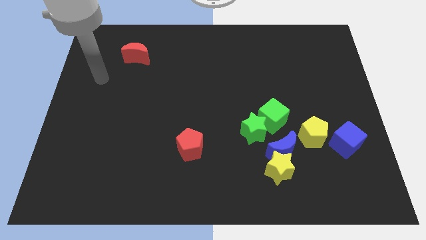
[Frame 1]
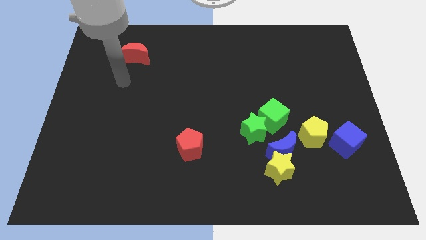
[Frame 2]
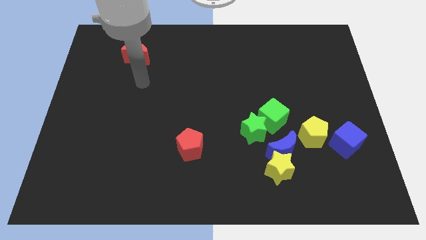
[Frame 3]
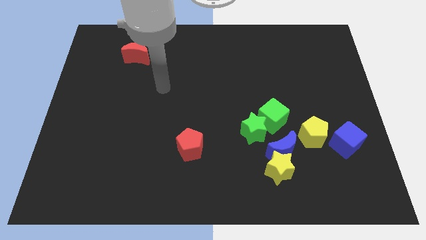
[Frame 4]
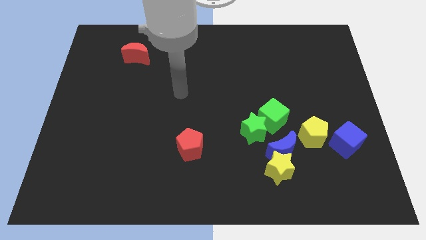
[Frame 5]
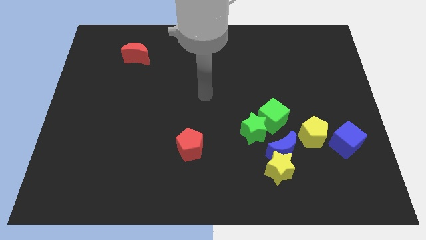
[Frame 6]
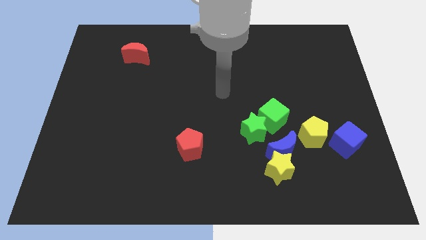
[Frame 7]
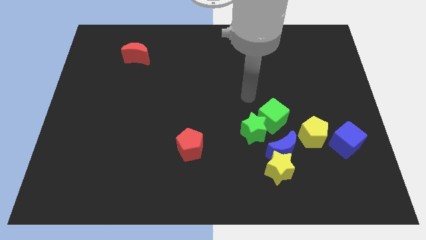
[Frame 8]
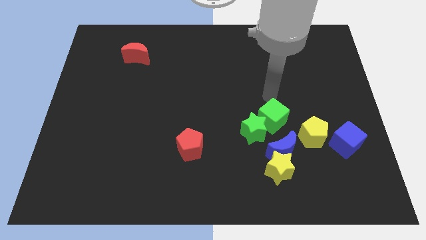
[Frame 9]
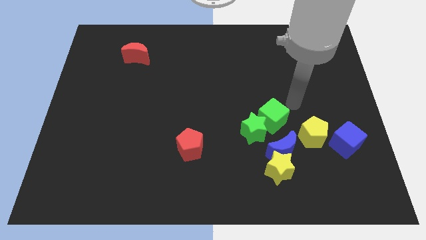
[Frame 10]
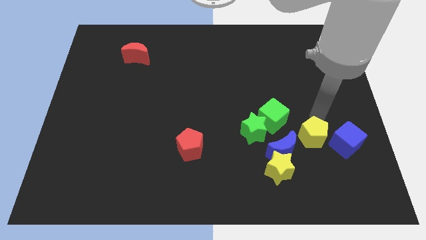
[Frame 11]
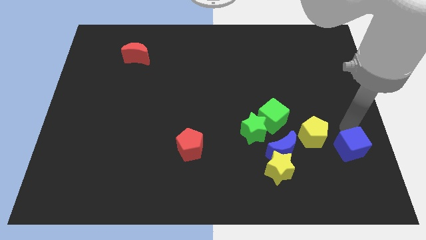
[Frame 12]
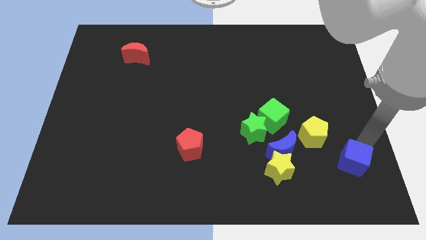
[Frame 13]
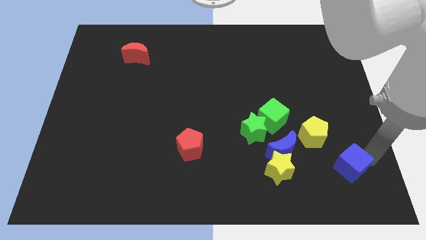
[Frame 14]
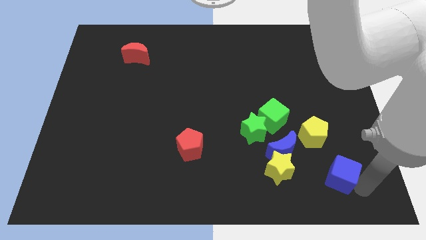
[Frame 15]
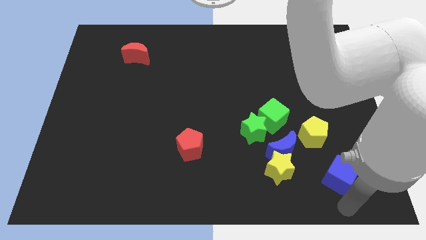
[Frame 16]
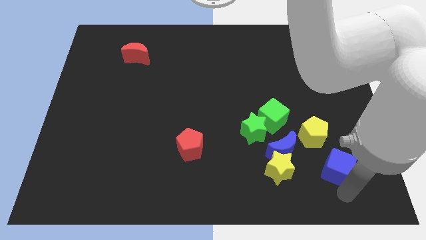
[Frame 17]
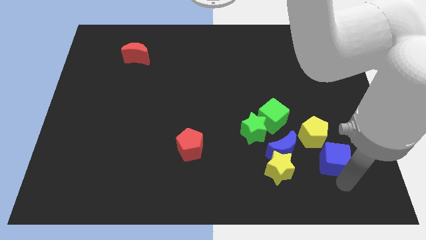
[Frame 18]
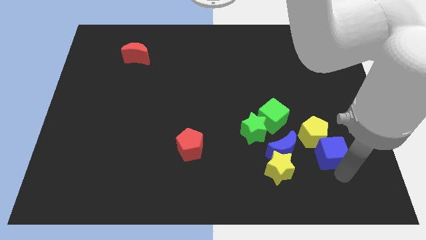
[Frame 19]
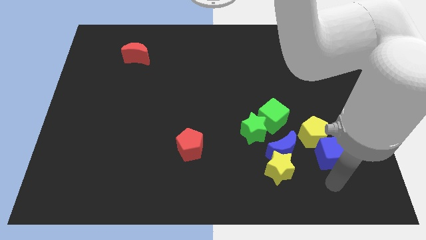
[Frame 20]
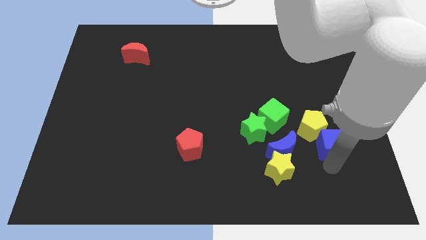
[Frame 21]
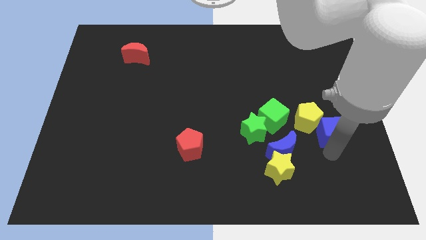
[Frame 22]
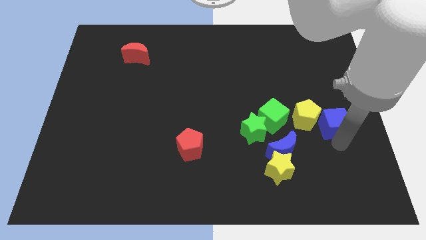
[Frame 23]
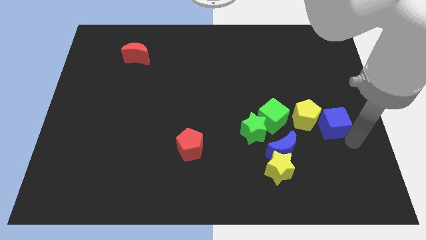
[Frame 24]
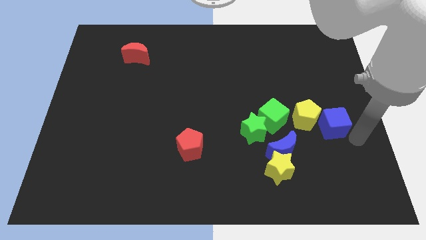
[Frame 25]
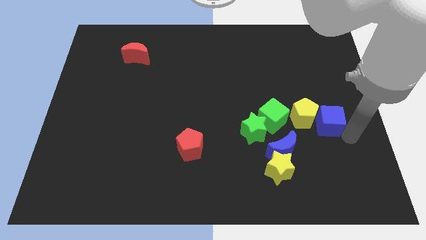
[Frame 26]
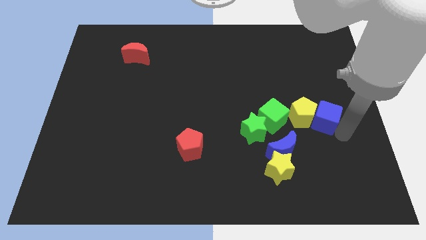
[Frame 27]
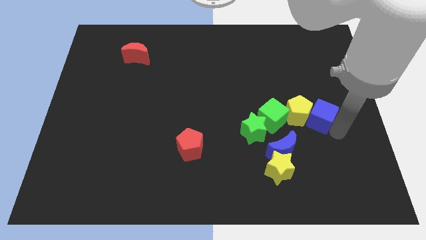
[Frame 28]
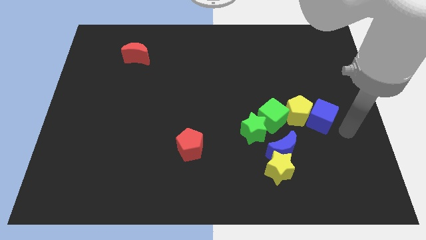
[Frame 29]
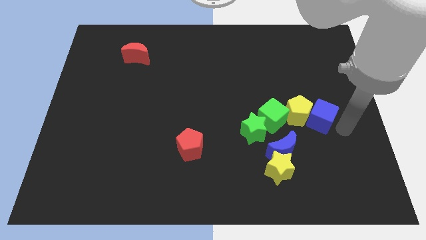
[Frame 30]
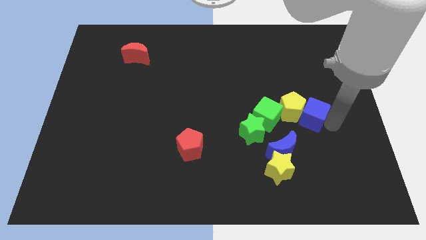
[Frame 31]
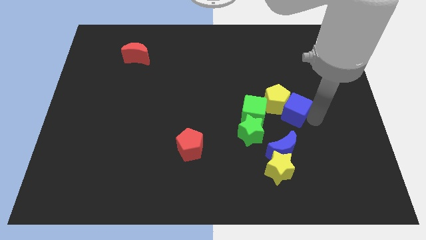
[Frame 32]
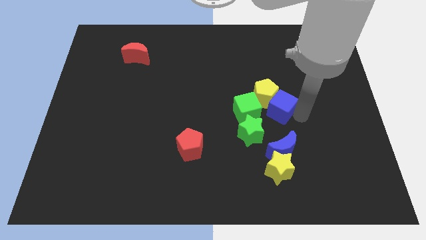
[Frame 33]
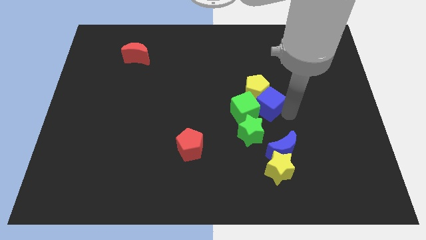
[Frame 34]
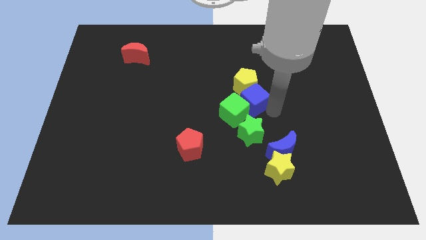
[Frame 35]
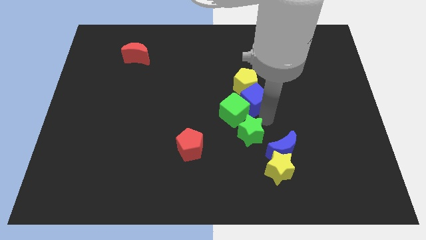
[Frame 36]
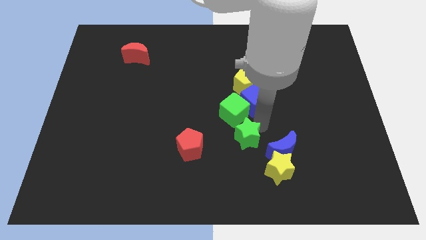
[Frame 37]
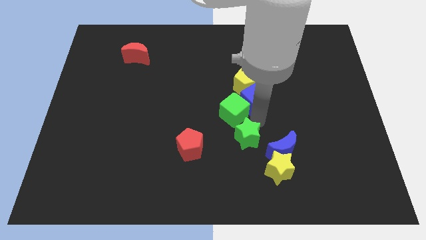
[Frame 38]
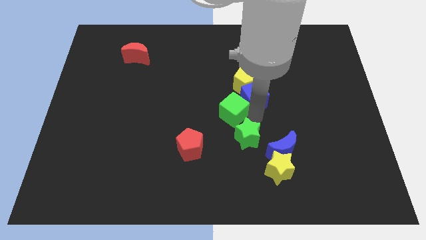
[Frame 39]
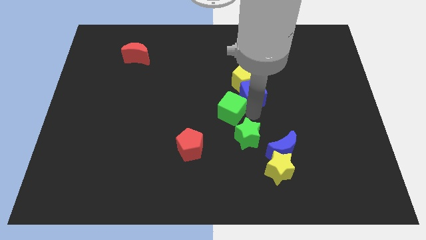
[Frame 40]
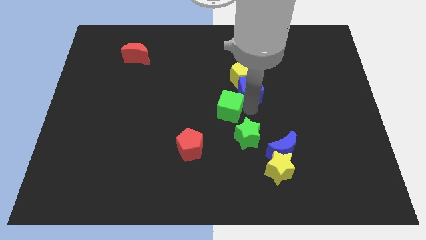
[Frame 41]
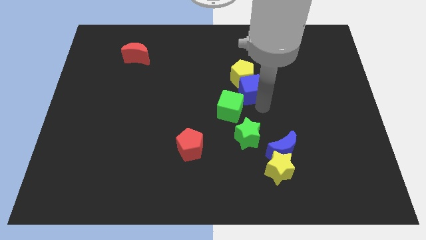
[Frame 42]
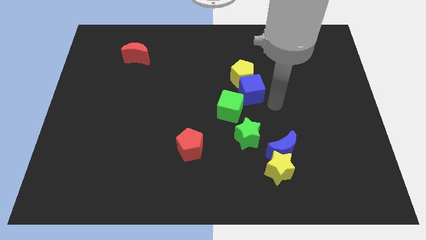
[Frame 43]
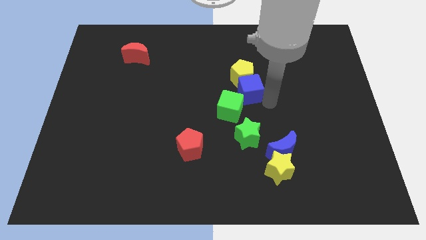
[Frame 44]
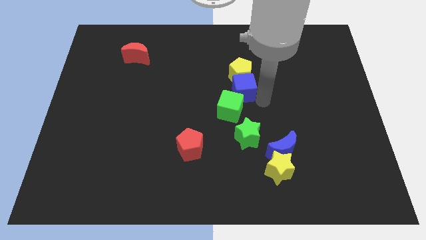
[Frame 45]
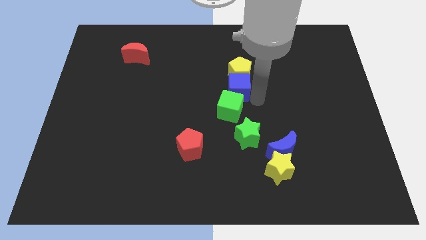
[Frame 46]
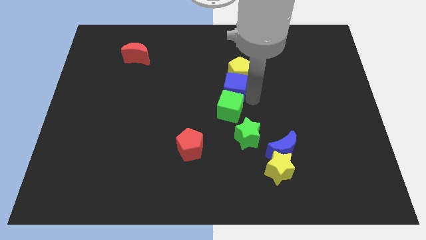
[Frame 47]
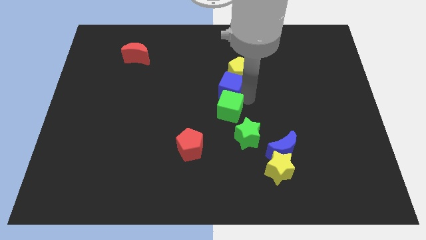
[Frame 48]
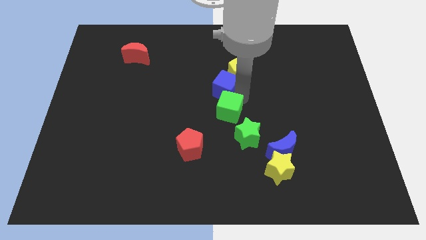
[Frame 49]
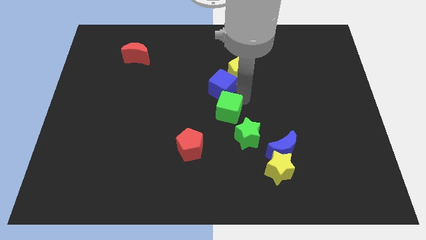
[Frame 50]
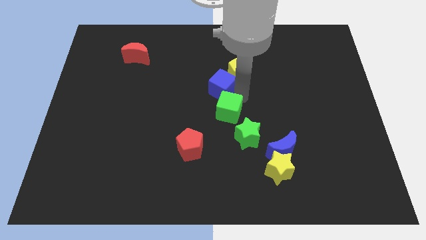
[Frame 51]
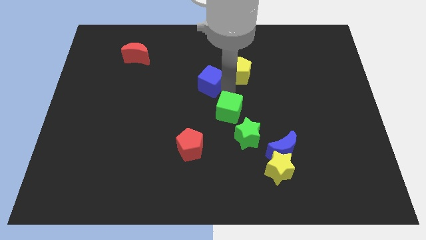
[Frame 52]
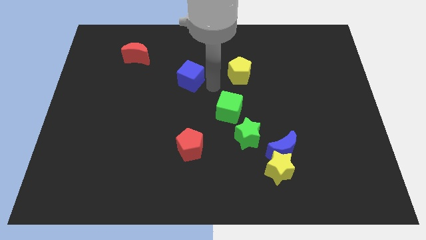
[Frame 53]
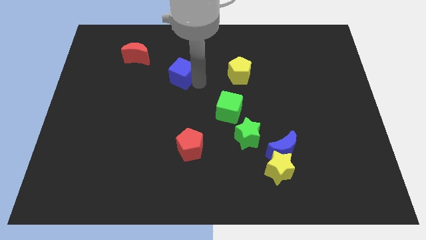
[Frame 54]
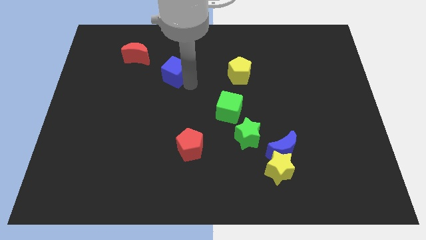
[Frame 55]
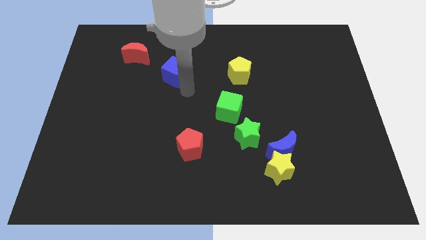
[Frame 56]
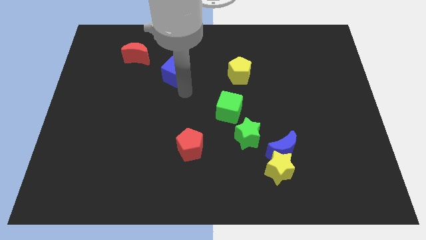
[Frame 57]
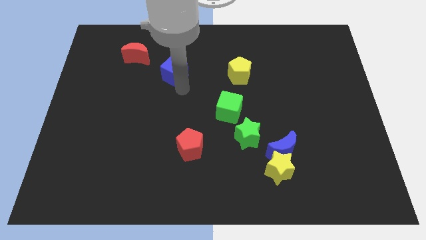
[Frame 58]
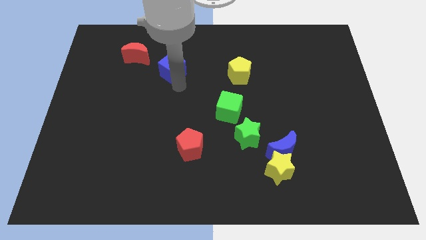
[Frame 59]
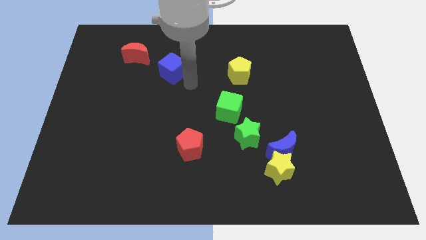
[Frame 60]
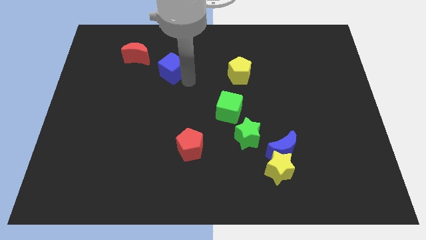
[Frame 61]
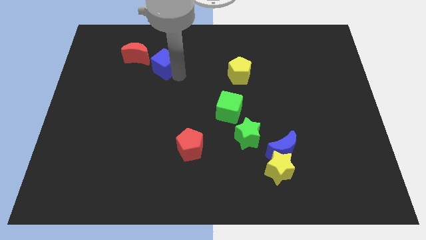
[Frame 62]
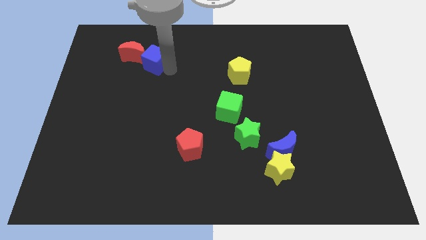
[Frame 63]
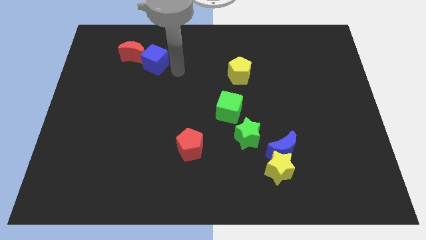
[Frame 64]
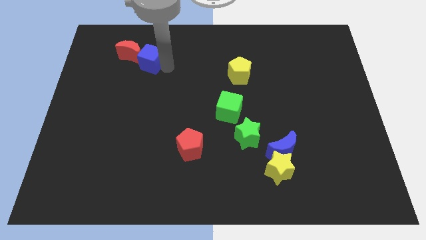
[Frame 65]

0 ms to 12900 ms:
move the blue cube close to the red moon
